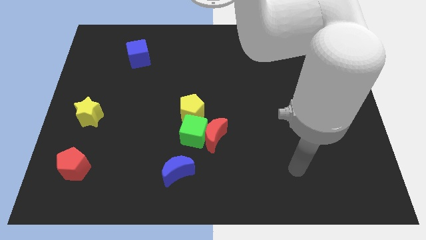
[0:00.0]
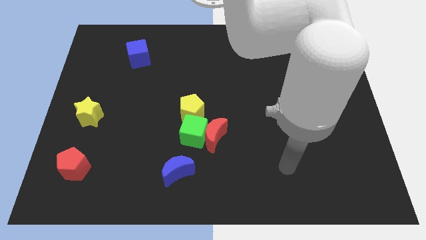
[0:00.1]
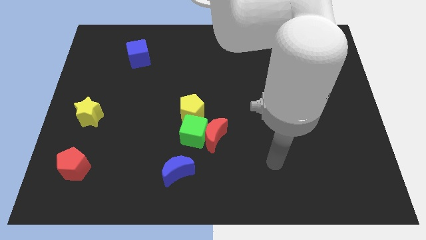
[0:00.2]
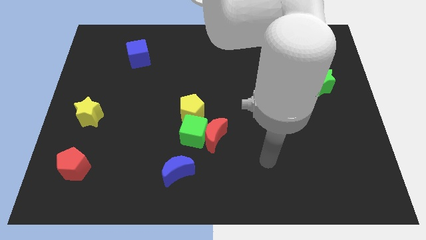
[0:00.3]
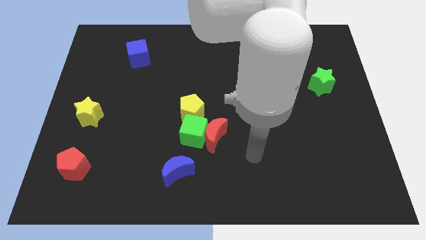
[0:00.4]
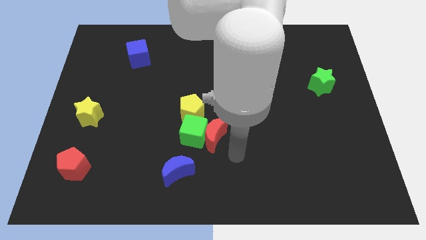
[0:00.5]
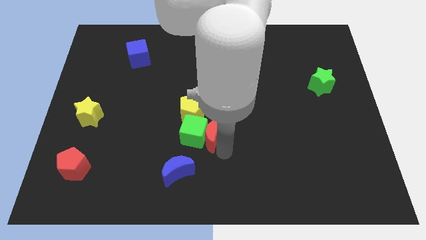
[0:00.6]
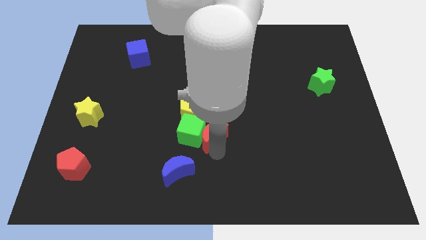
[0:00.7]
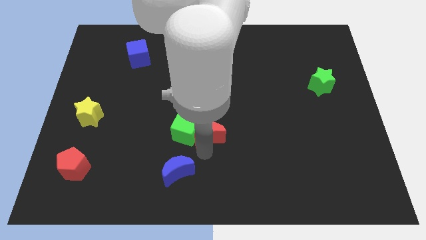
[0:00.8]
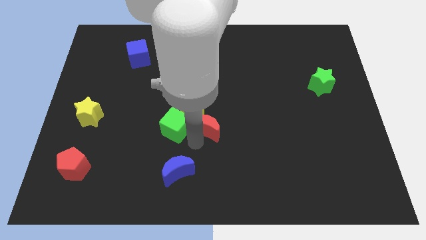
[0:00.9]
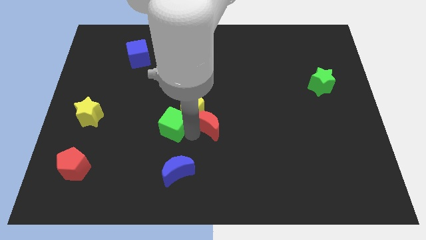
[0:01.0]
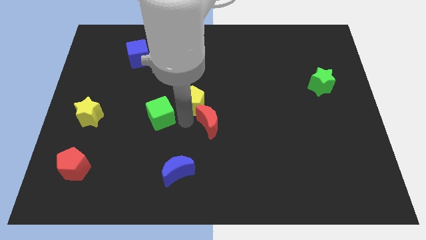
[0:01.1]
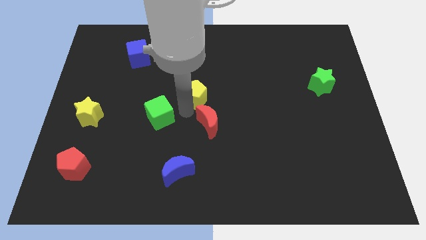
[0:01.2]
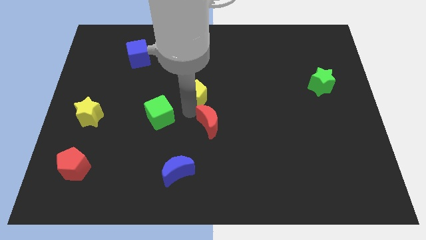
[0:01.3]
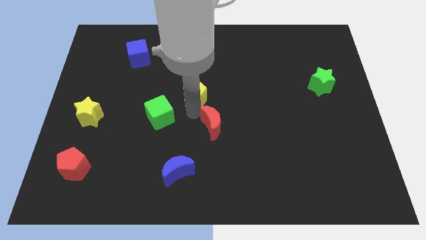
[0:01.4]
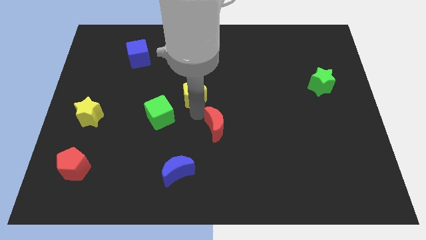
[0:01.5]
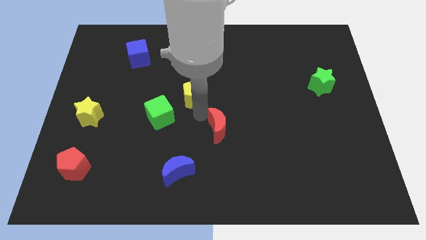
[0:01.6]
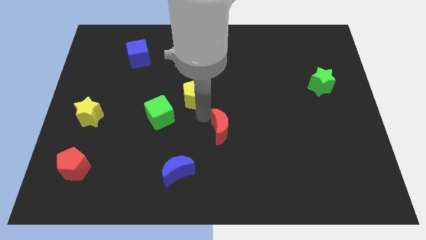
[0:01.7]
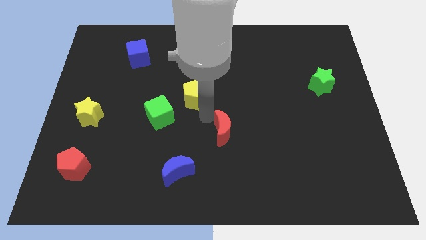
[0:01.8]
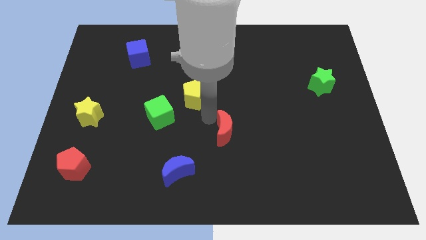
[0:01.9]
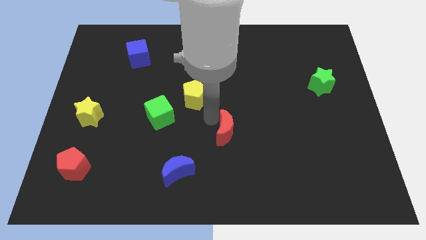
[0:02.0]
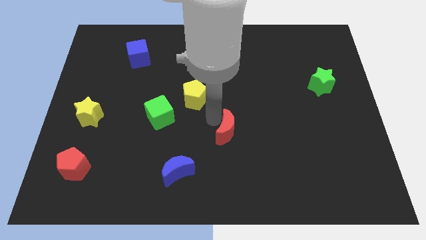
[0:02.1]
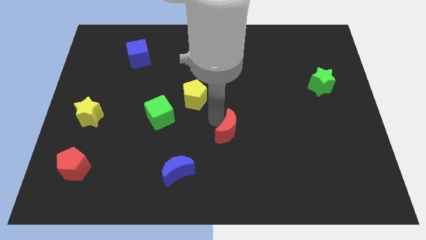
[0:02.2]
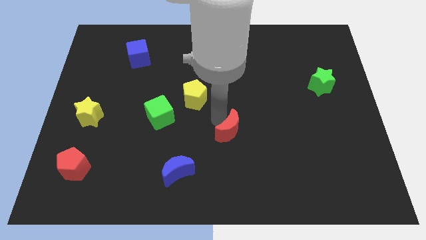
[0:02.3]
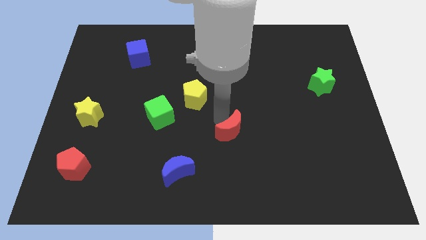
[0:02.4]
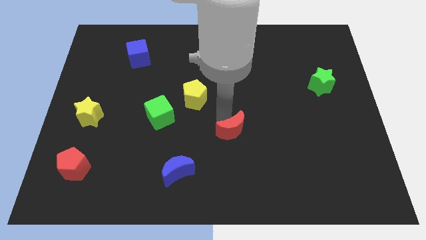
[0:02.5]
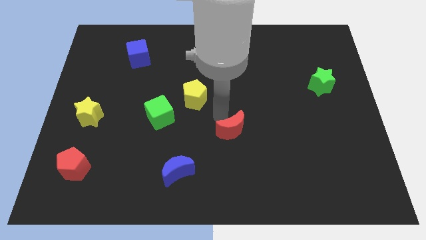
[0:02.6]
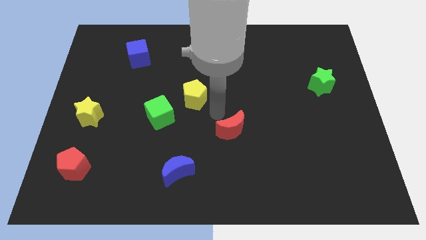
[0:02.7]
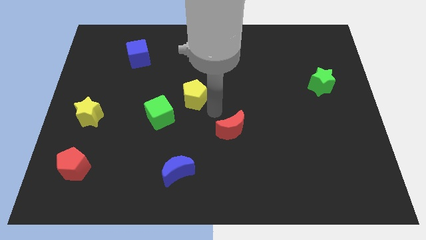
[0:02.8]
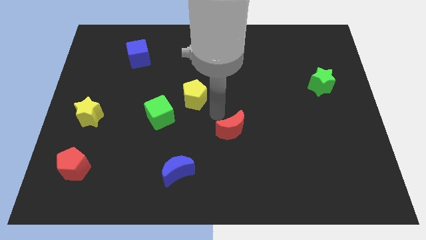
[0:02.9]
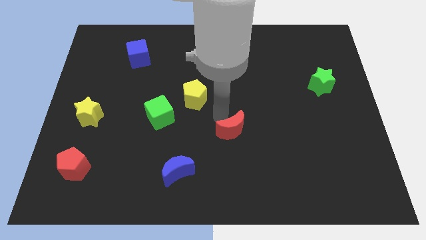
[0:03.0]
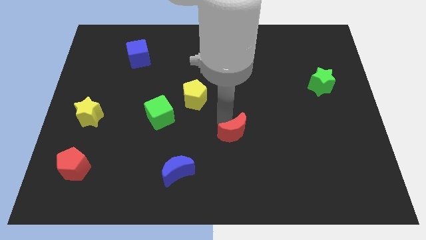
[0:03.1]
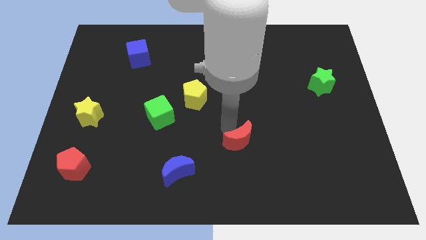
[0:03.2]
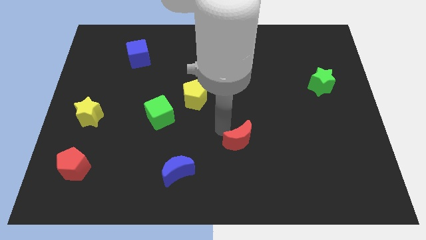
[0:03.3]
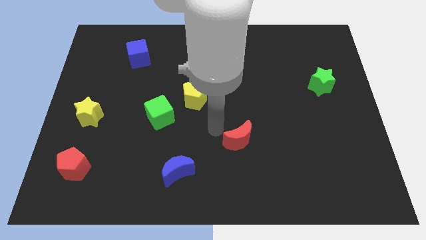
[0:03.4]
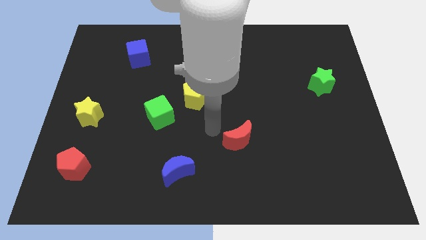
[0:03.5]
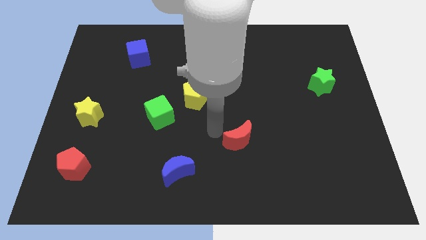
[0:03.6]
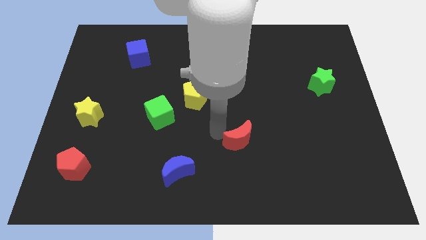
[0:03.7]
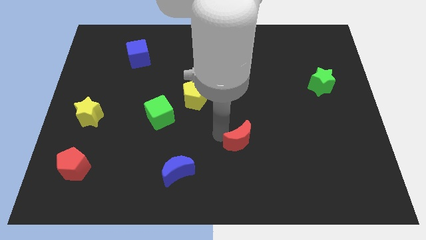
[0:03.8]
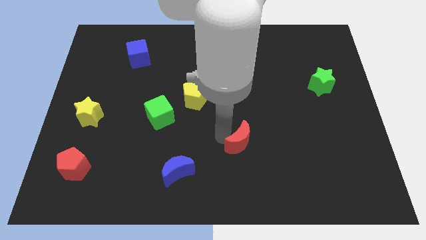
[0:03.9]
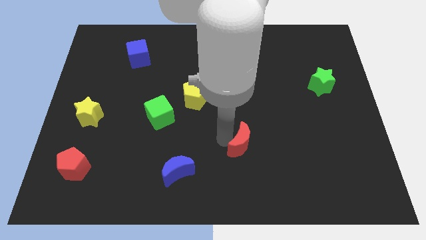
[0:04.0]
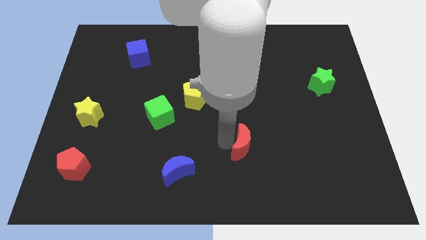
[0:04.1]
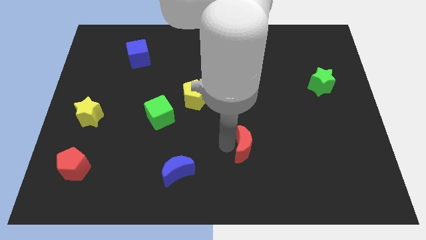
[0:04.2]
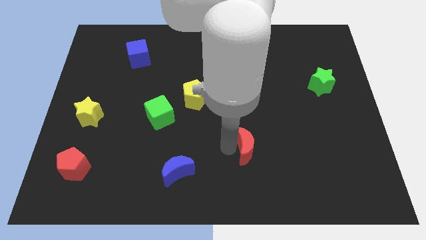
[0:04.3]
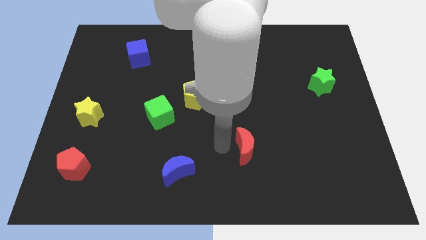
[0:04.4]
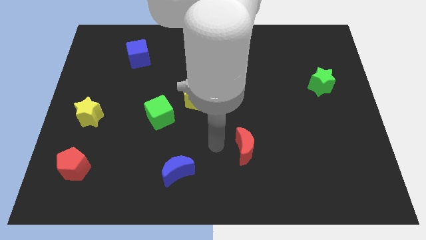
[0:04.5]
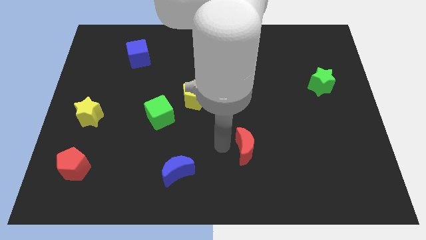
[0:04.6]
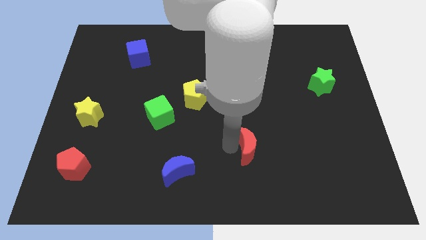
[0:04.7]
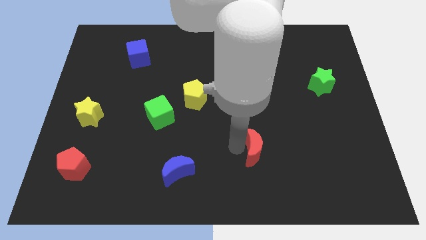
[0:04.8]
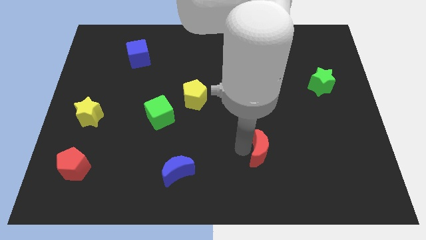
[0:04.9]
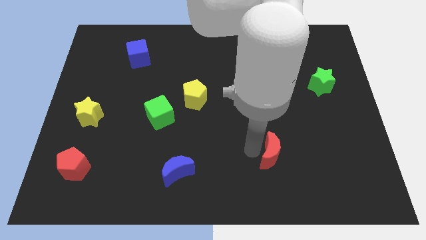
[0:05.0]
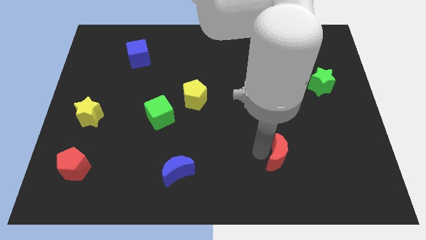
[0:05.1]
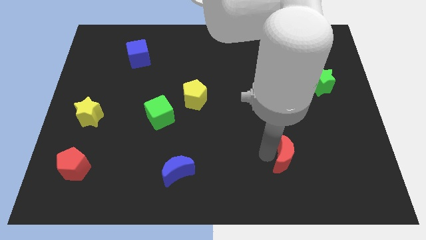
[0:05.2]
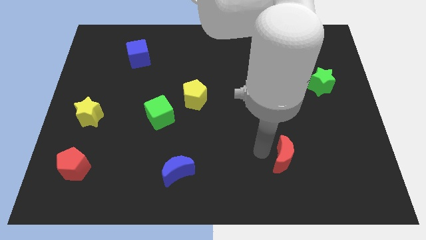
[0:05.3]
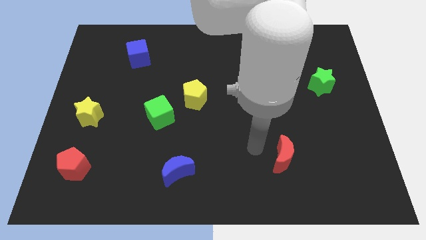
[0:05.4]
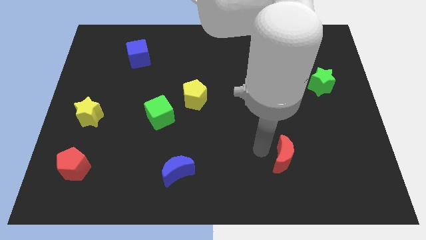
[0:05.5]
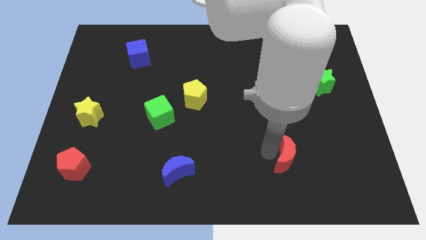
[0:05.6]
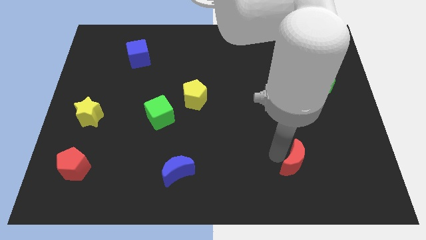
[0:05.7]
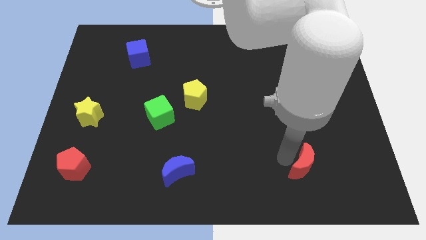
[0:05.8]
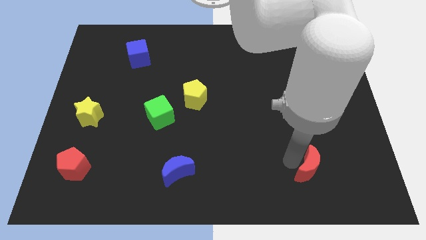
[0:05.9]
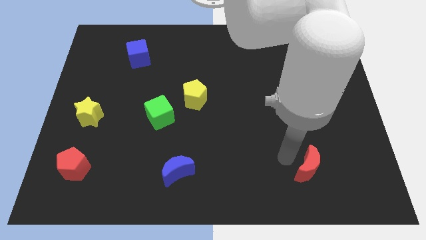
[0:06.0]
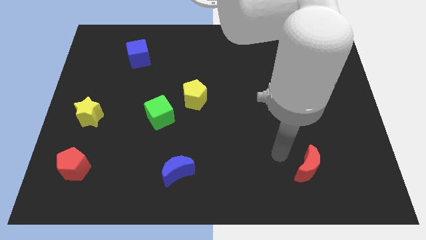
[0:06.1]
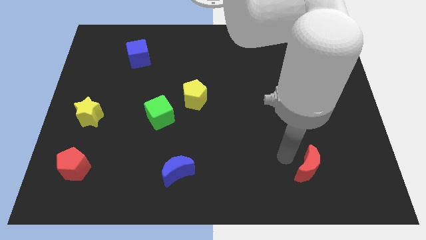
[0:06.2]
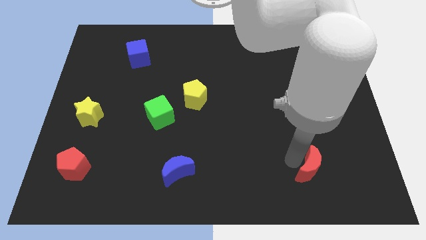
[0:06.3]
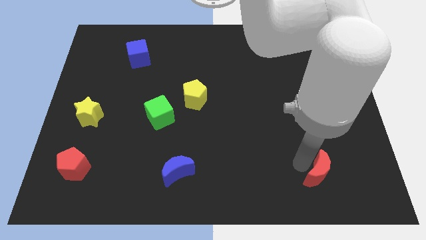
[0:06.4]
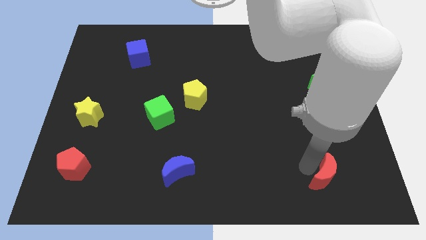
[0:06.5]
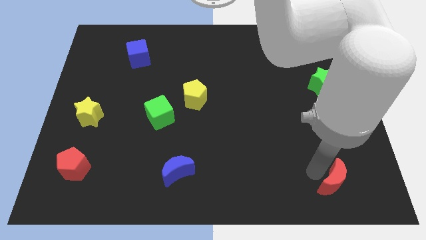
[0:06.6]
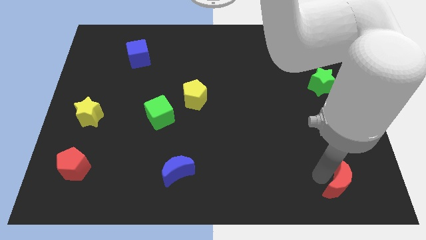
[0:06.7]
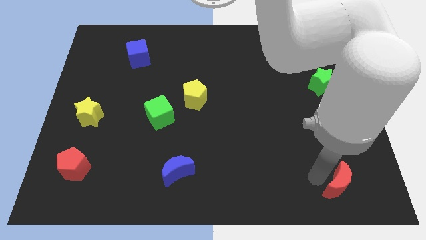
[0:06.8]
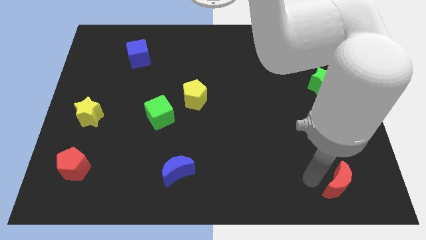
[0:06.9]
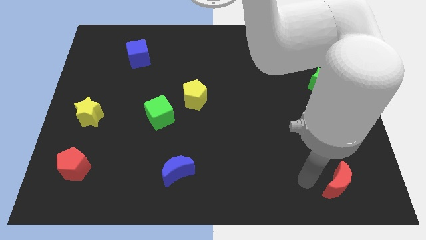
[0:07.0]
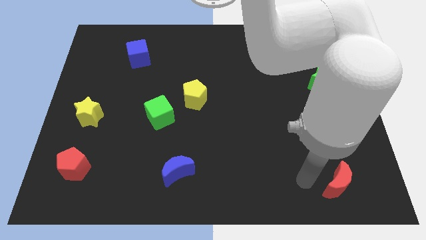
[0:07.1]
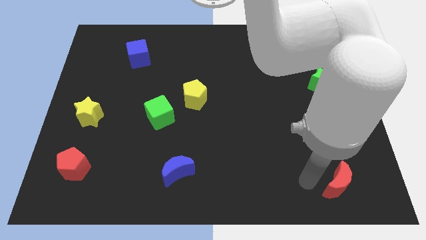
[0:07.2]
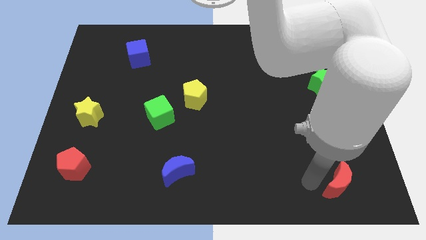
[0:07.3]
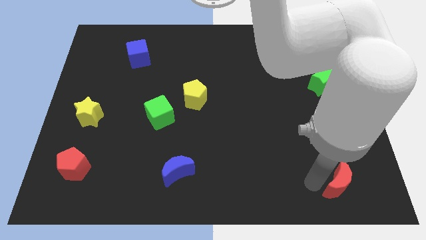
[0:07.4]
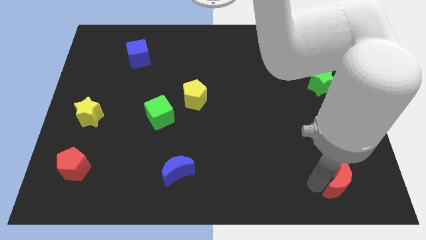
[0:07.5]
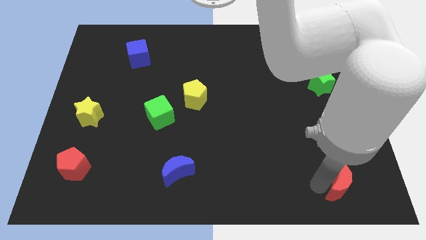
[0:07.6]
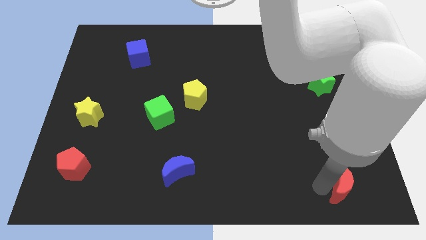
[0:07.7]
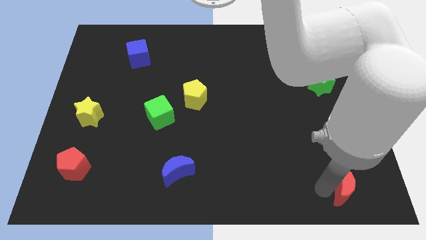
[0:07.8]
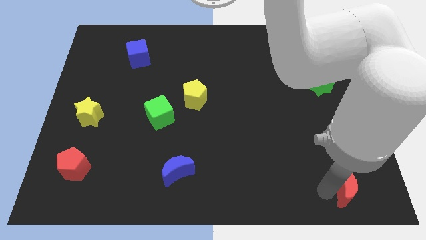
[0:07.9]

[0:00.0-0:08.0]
move the red moon to the lower right corner
